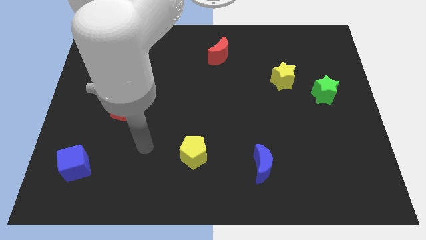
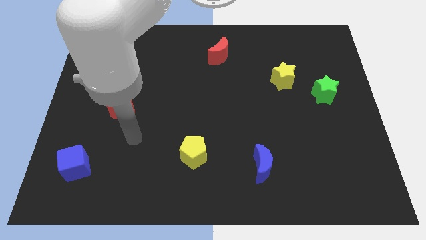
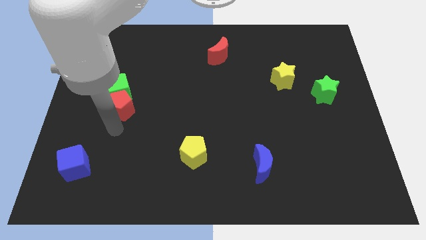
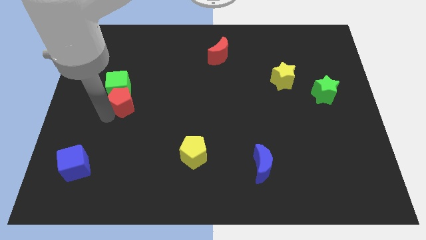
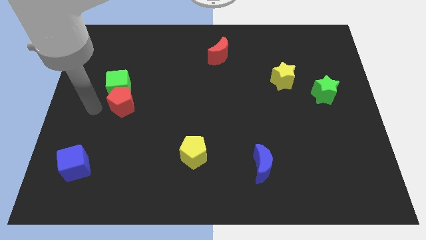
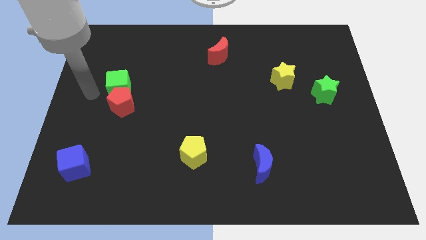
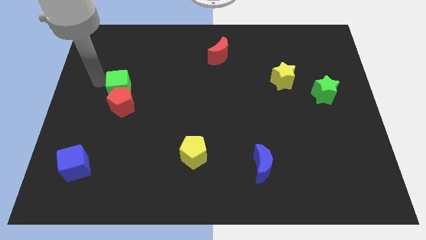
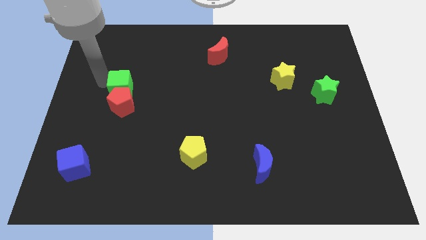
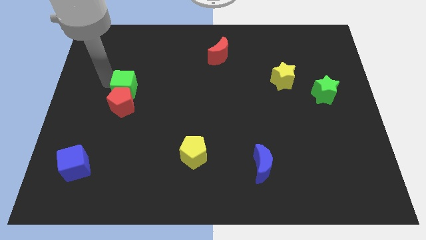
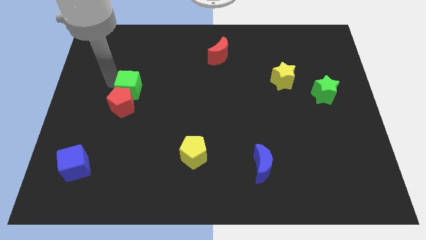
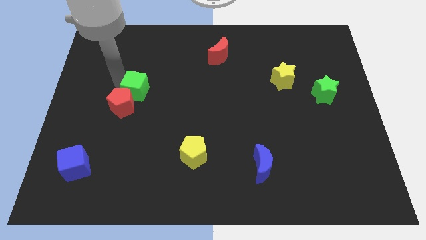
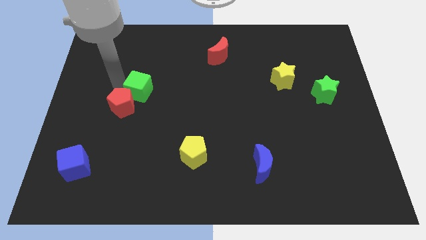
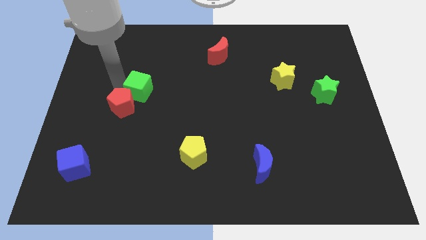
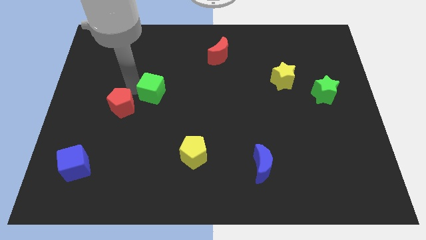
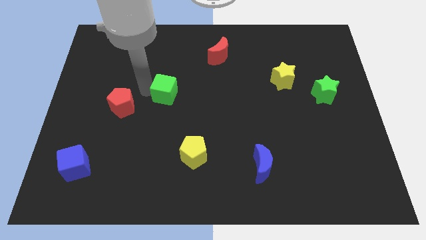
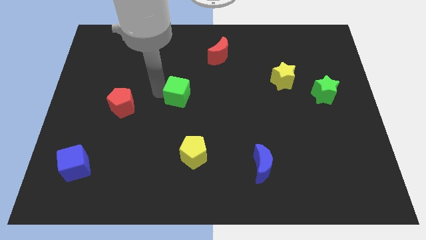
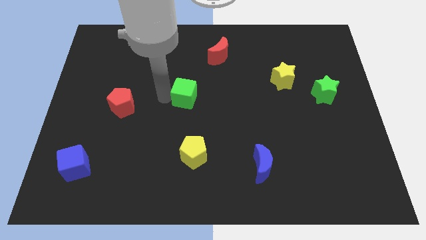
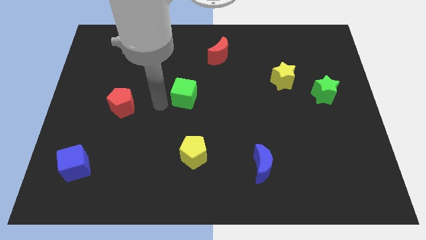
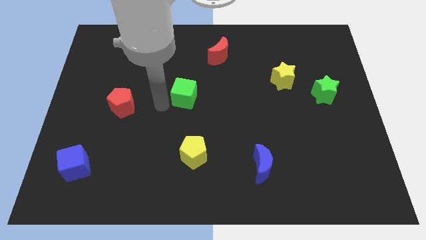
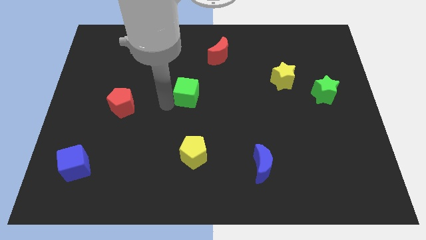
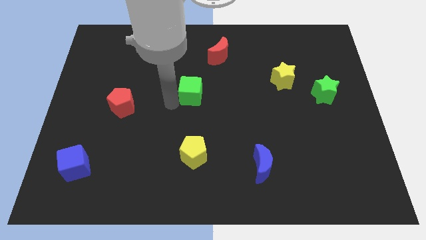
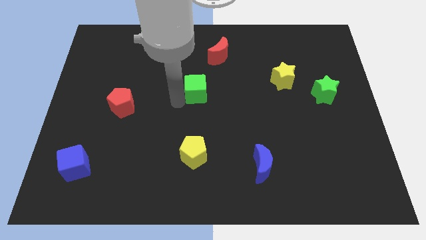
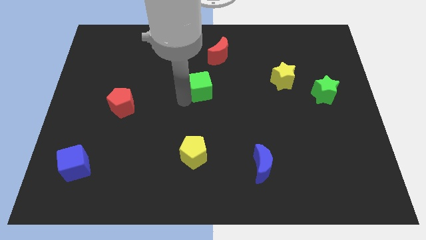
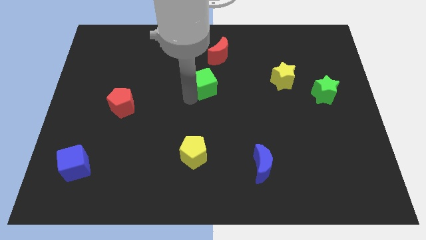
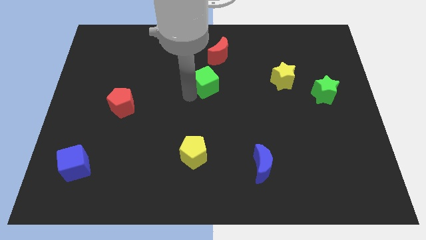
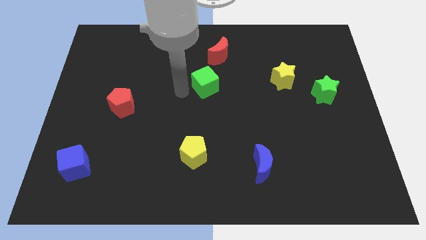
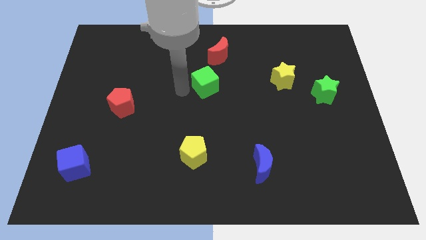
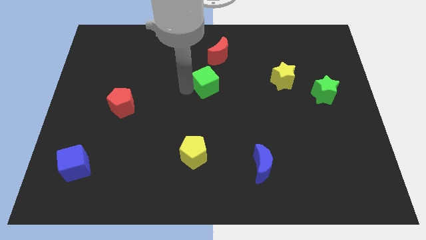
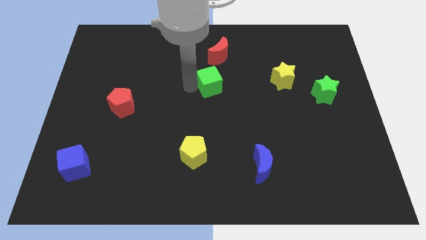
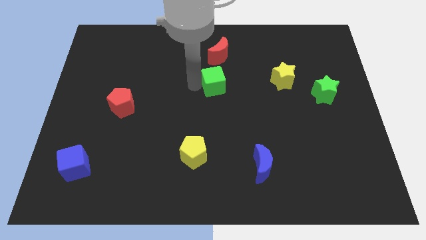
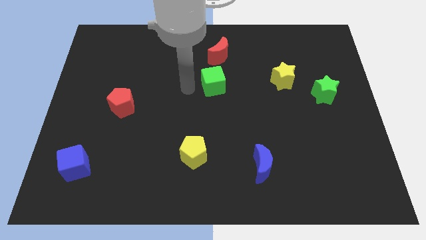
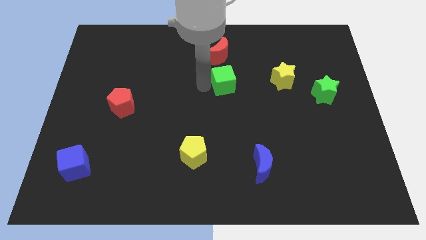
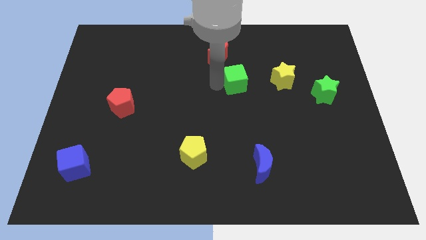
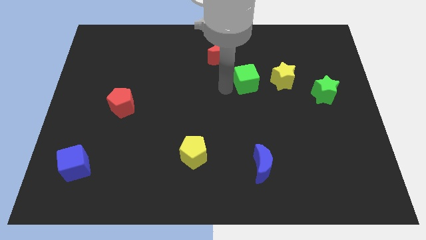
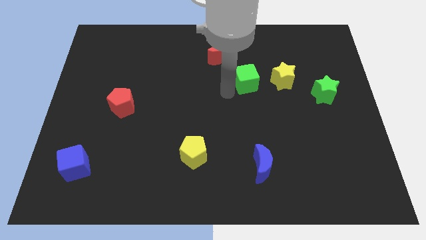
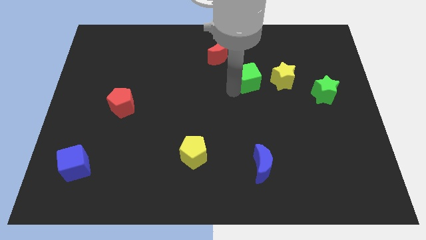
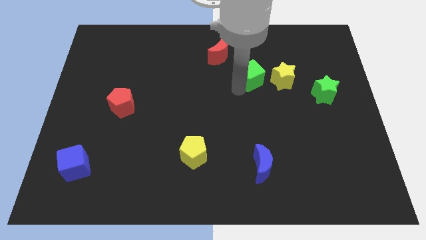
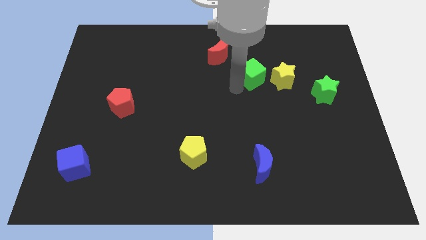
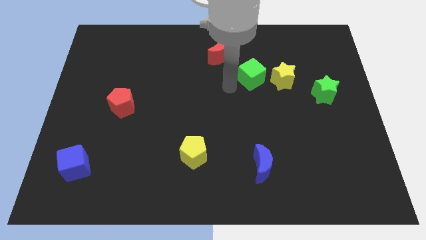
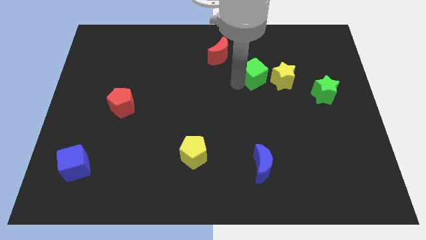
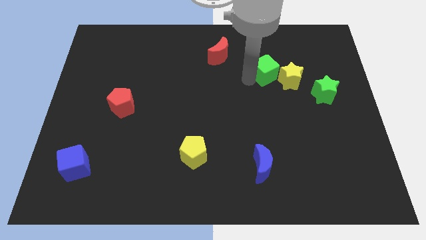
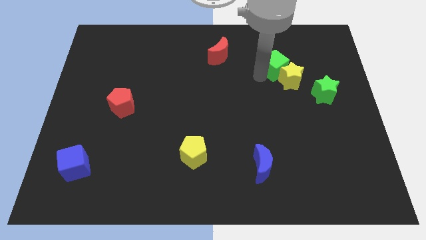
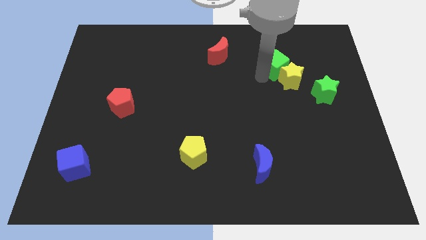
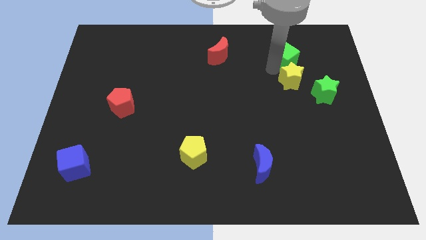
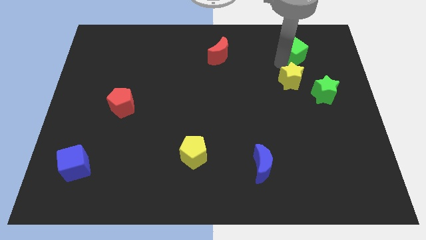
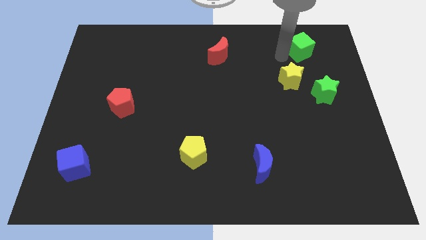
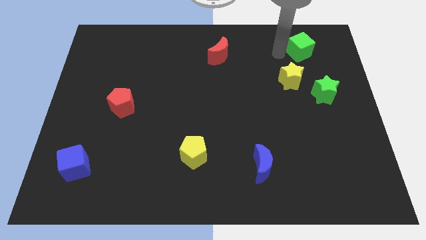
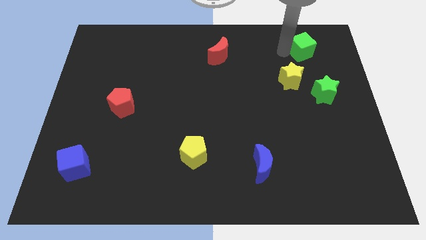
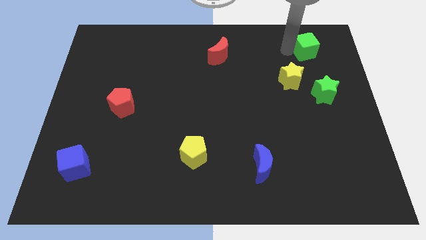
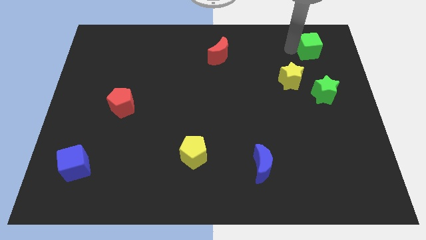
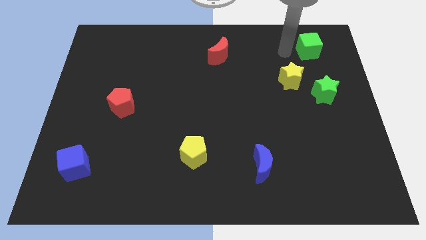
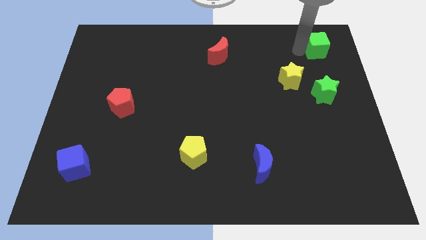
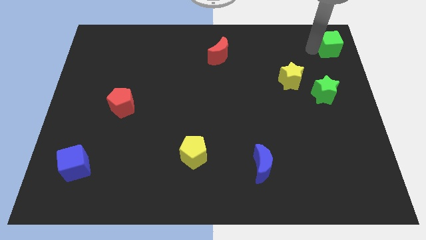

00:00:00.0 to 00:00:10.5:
put the green cube to the top right of the board

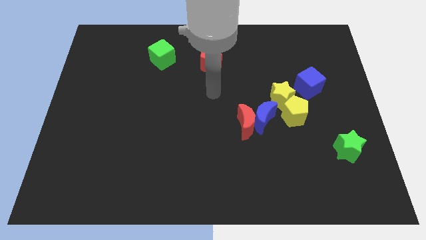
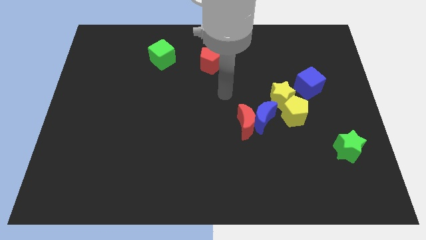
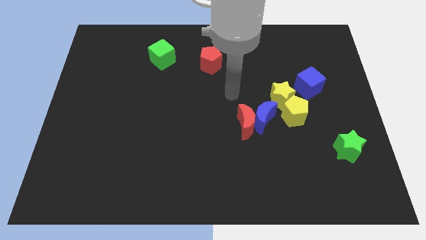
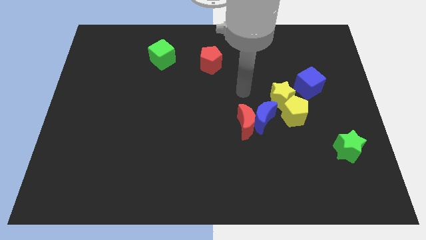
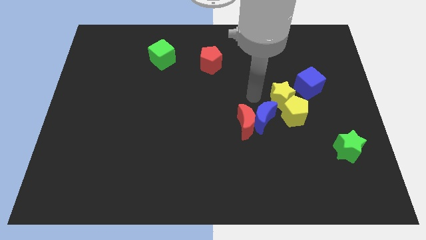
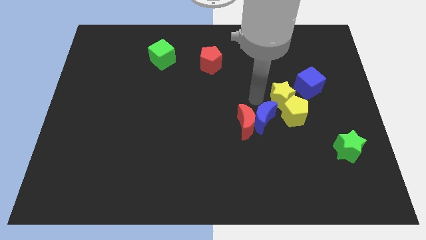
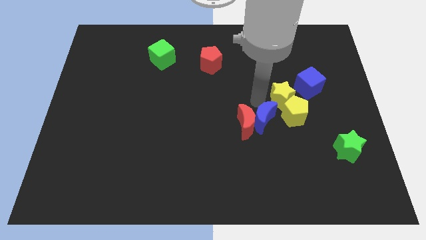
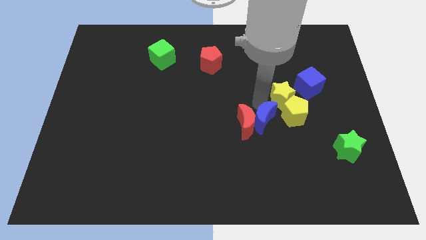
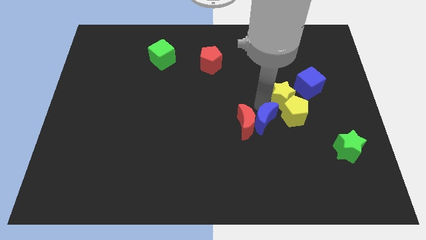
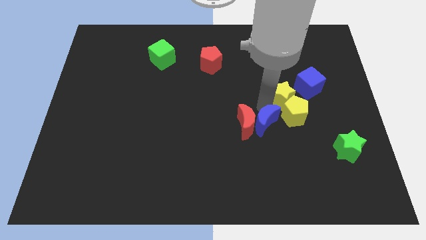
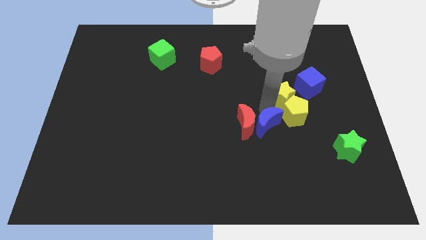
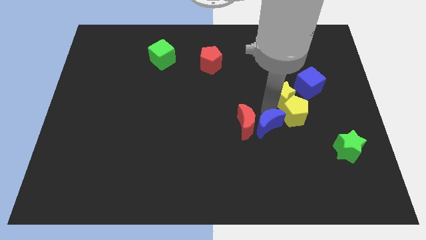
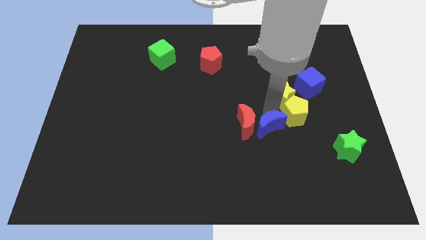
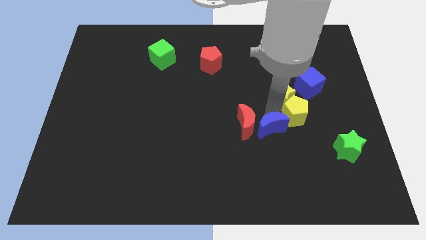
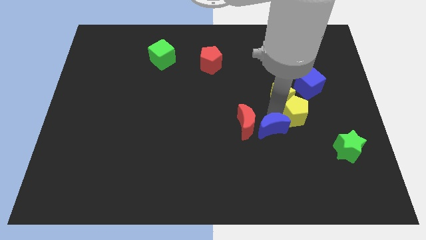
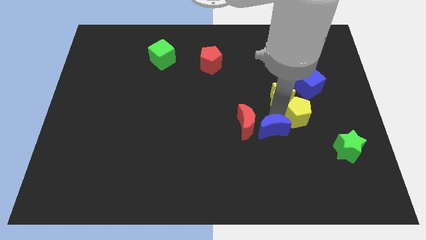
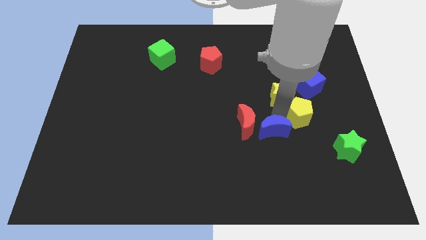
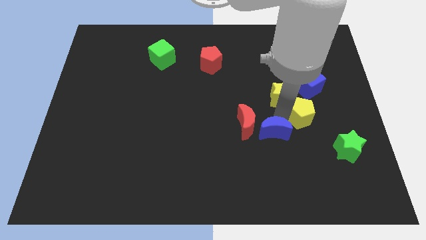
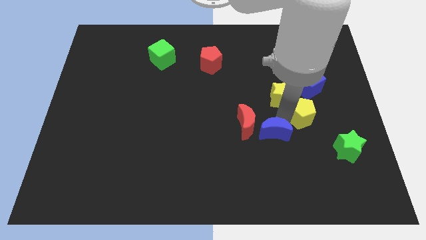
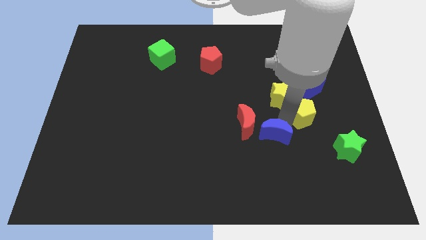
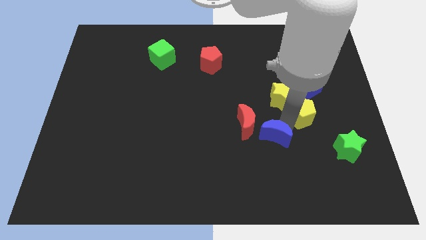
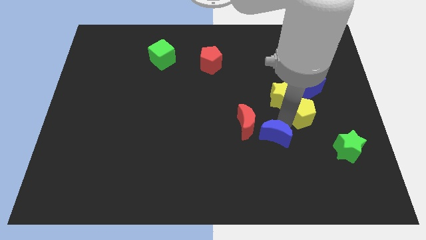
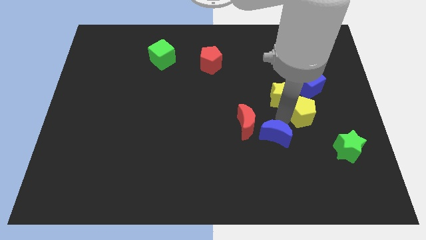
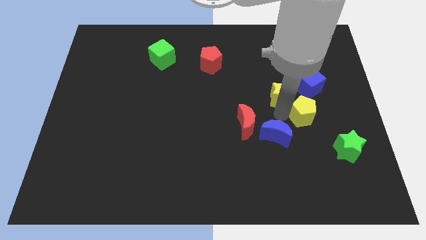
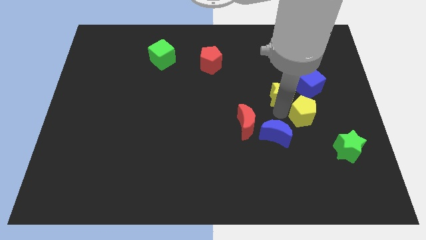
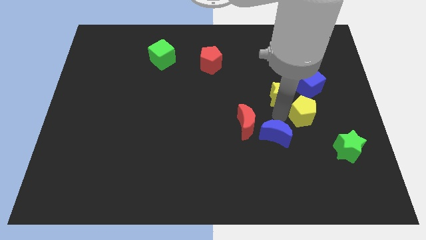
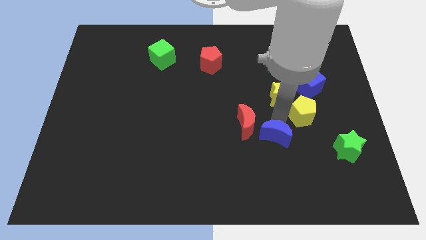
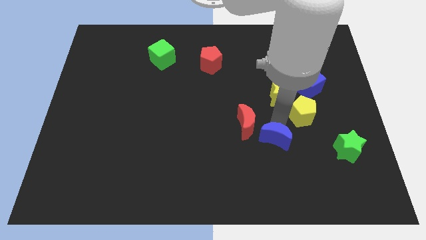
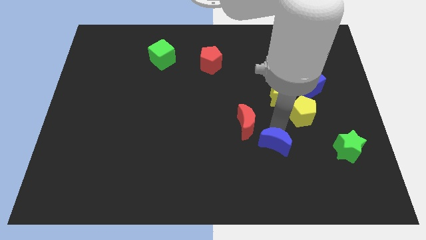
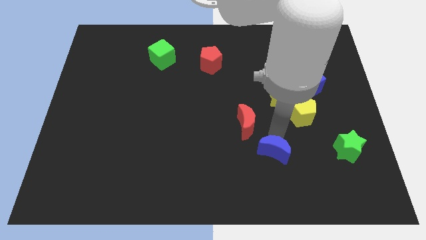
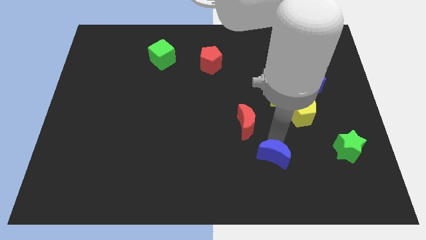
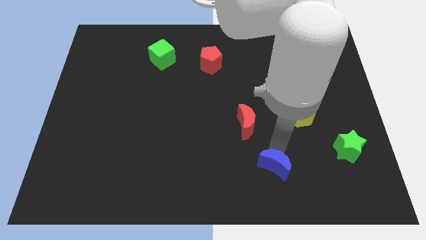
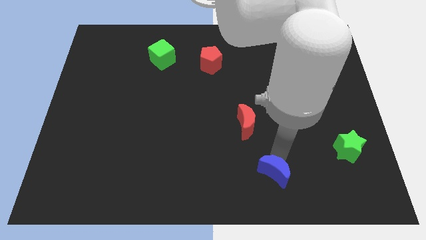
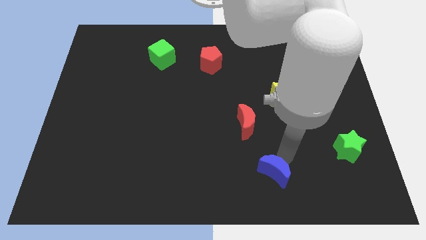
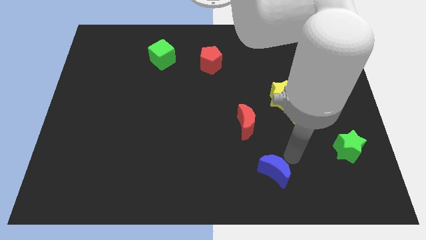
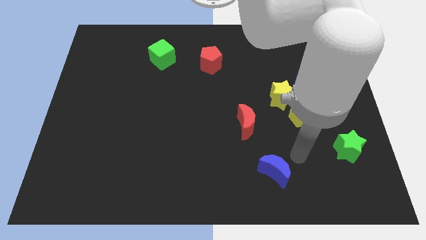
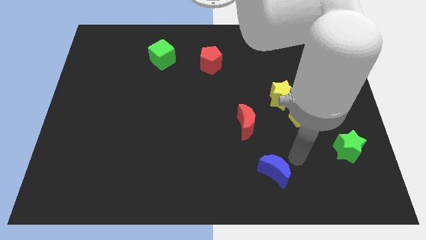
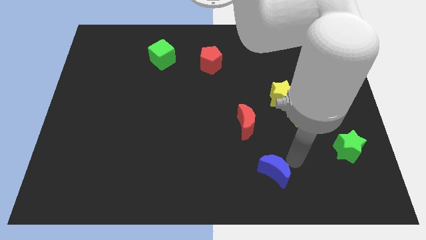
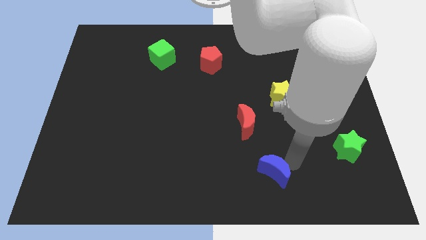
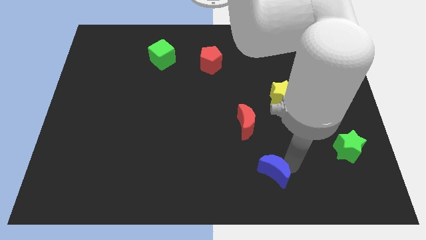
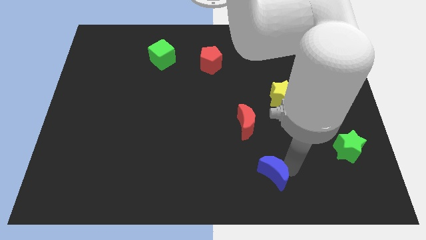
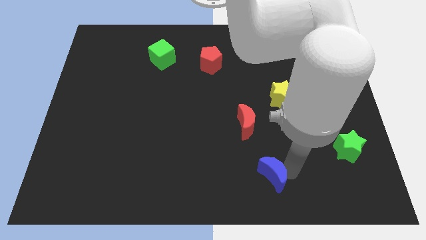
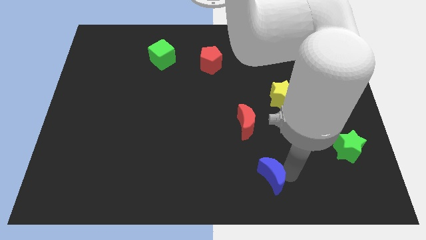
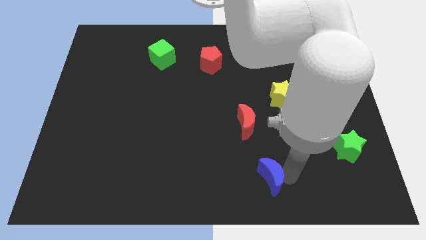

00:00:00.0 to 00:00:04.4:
move the blue moon to the bottom
